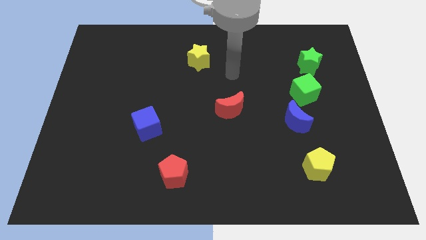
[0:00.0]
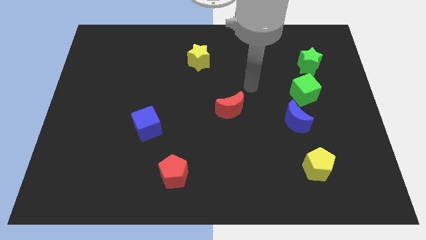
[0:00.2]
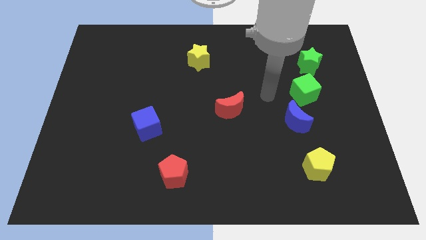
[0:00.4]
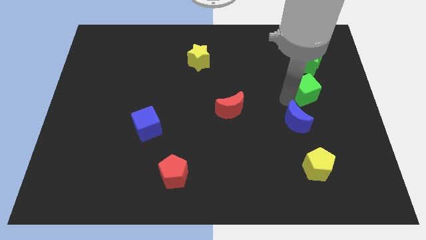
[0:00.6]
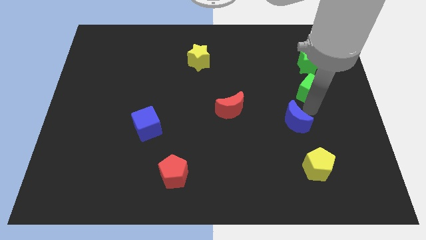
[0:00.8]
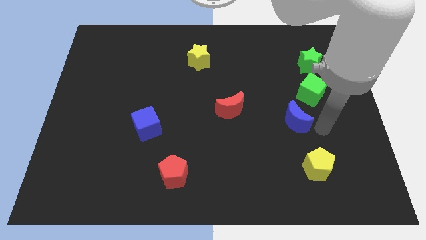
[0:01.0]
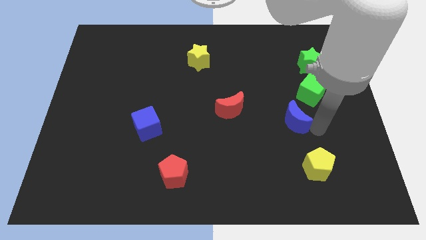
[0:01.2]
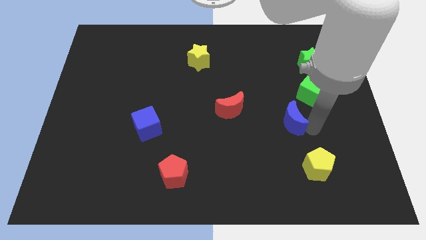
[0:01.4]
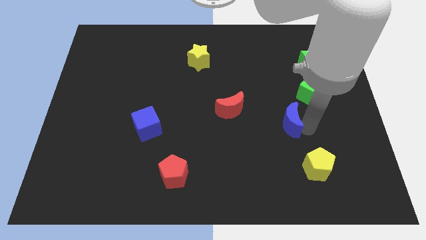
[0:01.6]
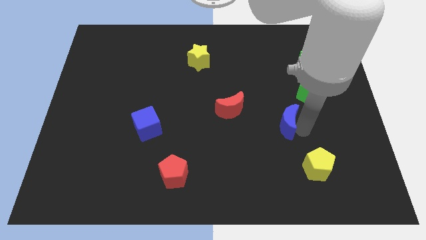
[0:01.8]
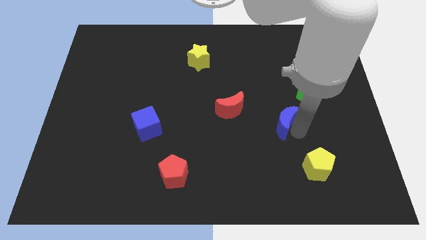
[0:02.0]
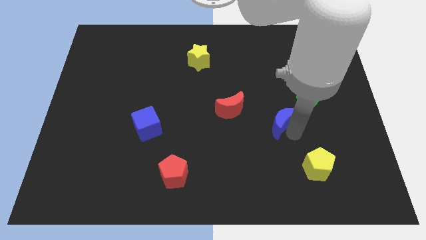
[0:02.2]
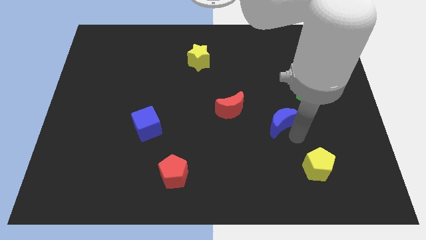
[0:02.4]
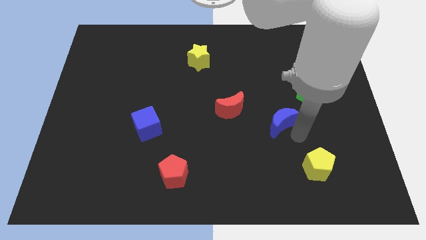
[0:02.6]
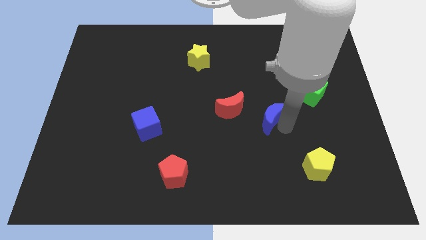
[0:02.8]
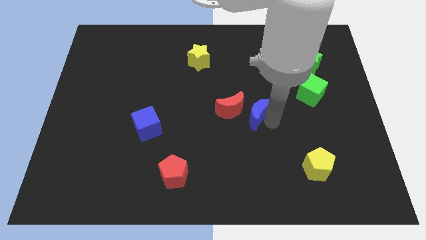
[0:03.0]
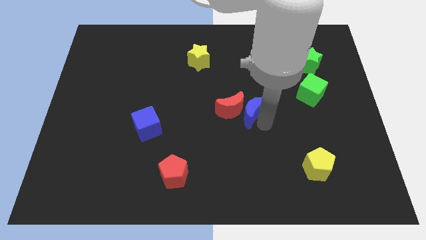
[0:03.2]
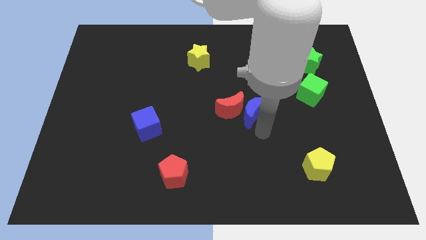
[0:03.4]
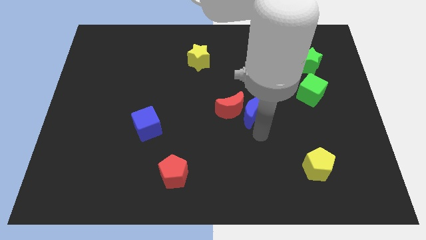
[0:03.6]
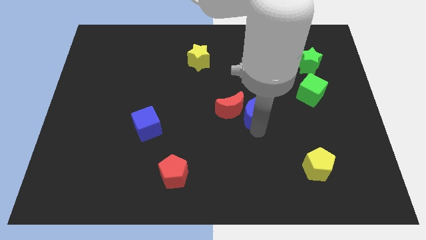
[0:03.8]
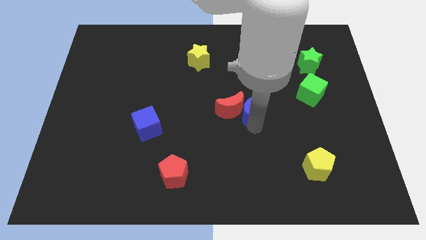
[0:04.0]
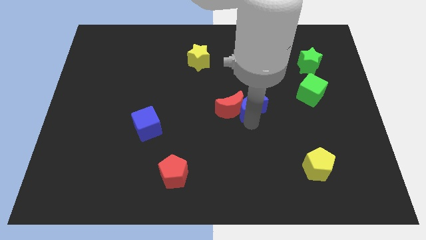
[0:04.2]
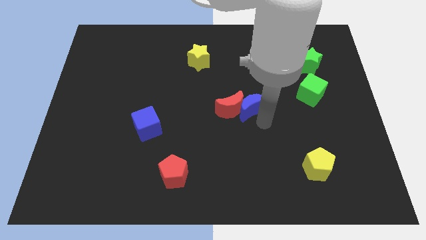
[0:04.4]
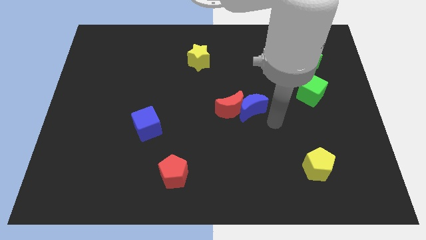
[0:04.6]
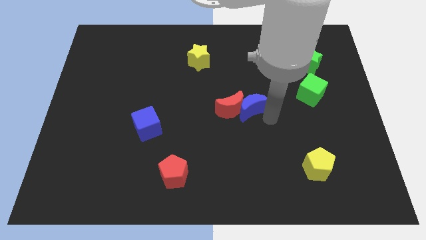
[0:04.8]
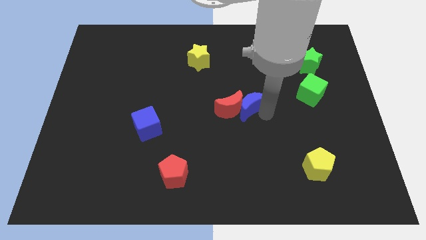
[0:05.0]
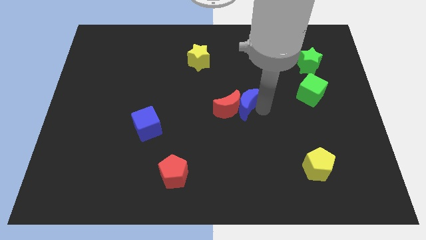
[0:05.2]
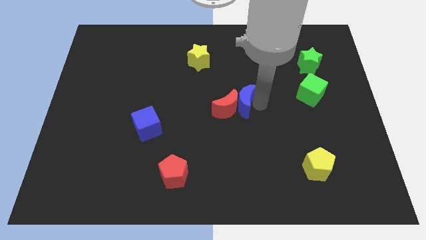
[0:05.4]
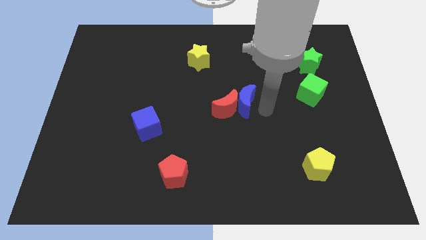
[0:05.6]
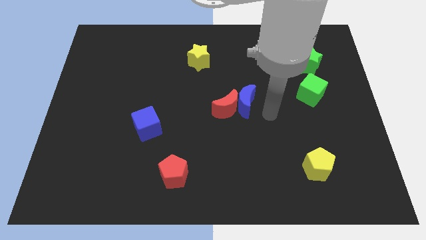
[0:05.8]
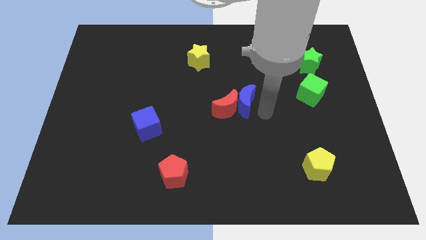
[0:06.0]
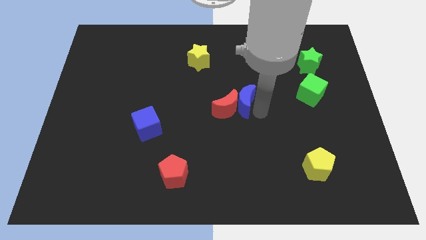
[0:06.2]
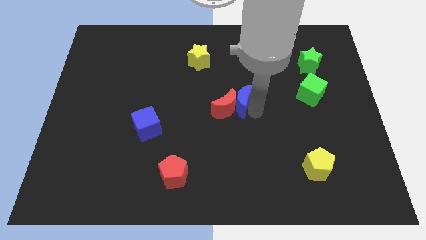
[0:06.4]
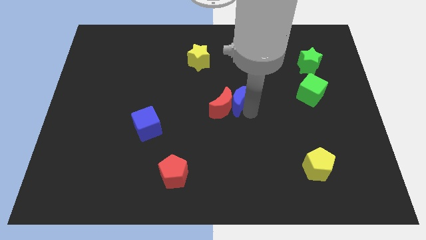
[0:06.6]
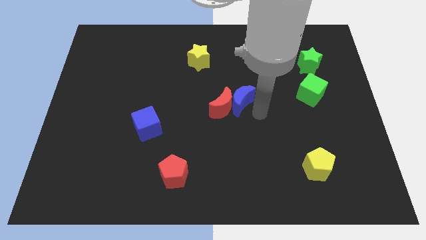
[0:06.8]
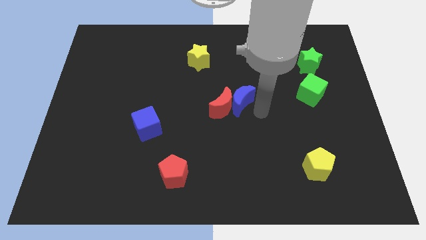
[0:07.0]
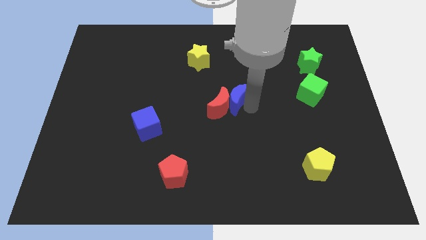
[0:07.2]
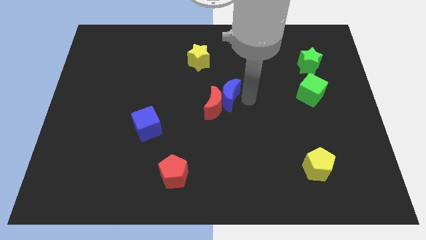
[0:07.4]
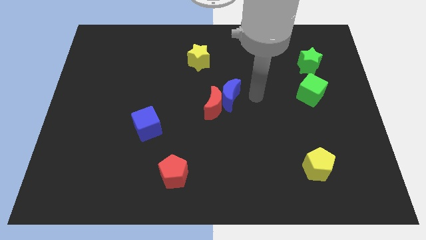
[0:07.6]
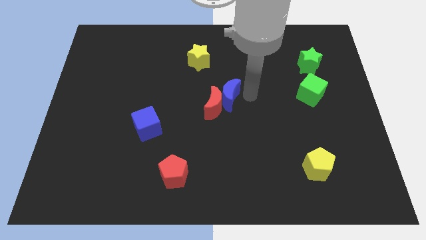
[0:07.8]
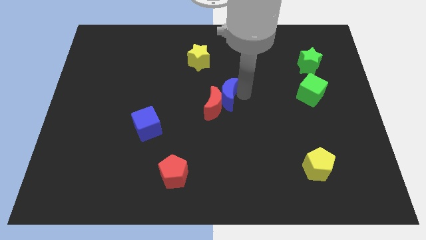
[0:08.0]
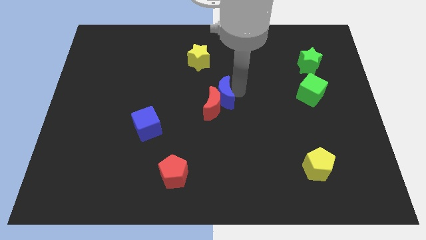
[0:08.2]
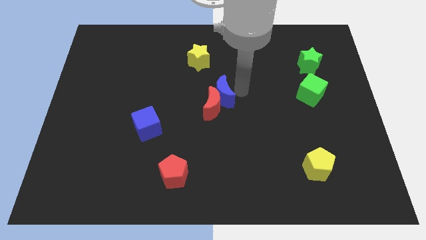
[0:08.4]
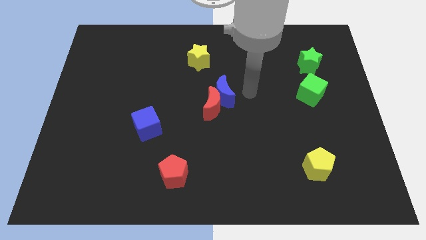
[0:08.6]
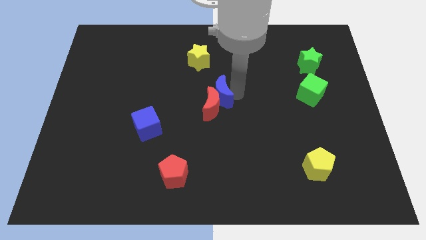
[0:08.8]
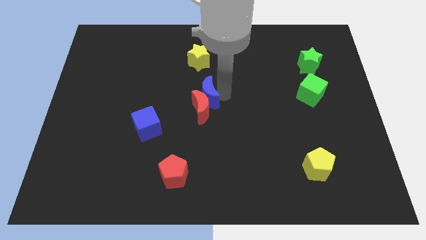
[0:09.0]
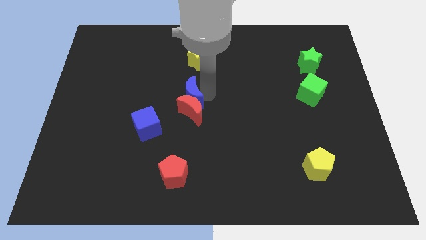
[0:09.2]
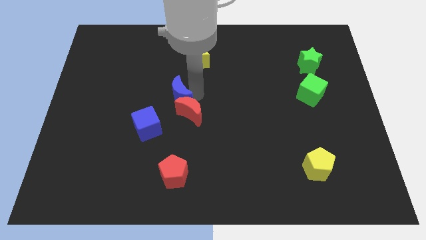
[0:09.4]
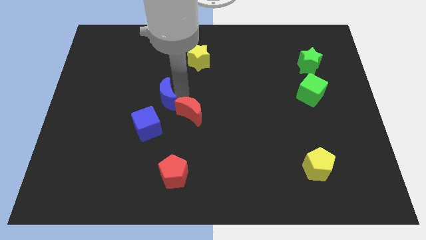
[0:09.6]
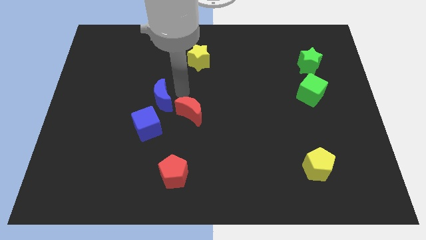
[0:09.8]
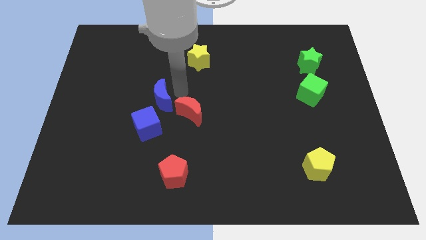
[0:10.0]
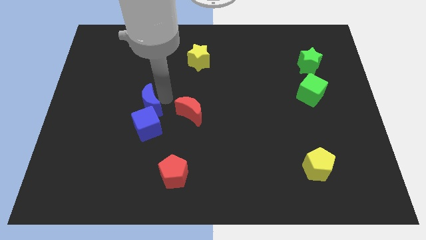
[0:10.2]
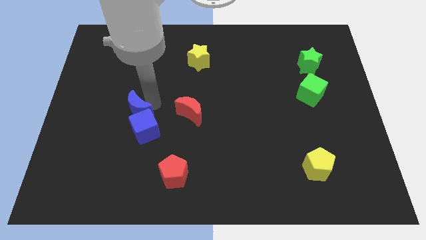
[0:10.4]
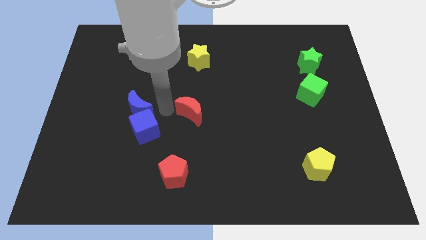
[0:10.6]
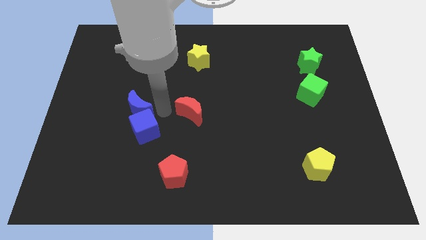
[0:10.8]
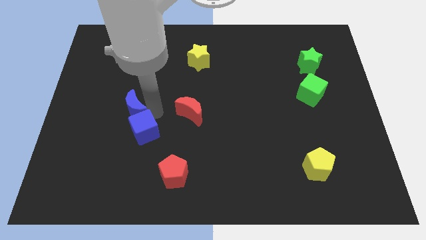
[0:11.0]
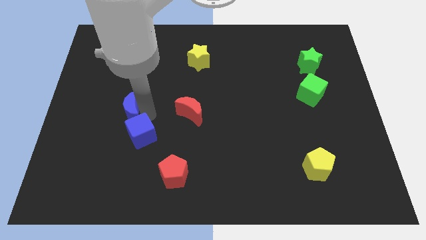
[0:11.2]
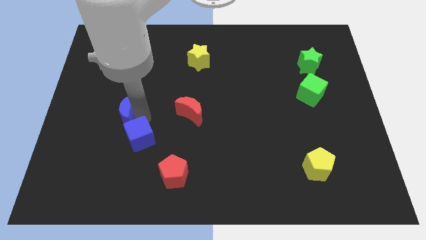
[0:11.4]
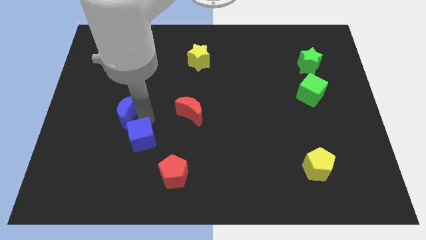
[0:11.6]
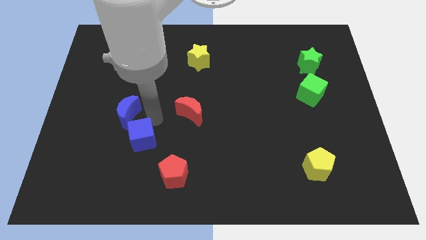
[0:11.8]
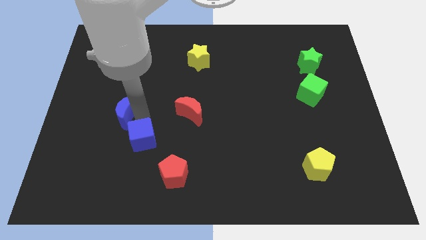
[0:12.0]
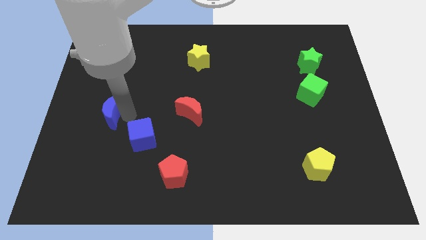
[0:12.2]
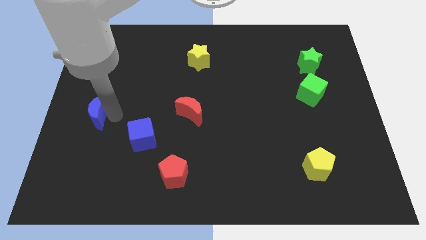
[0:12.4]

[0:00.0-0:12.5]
push the blue moon to the left side
